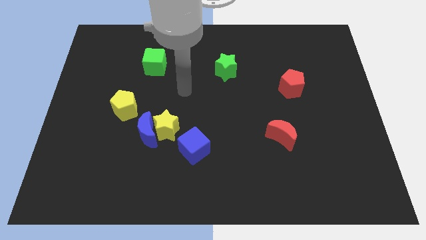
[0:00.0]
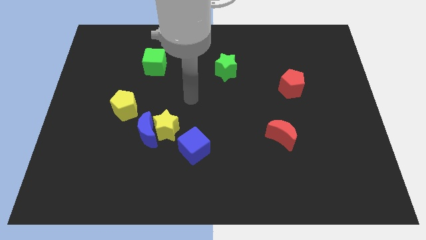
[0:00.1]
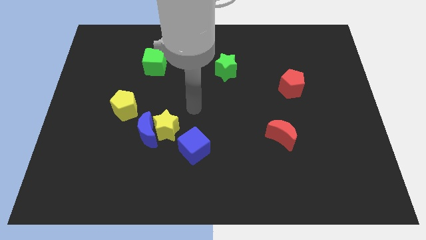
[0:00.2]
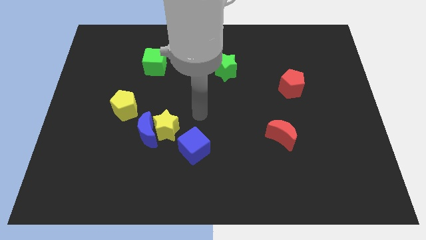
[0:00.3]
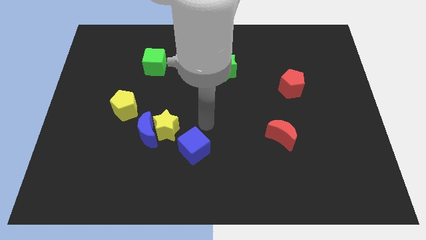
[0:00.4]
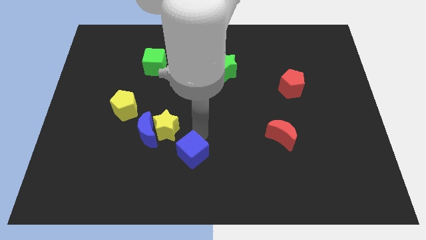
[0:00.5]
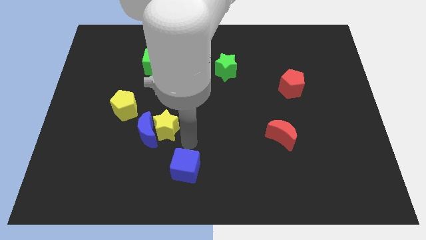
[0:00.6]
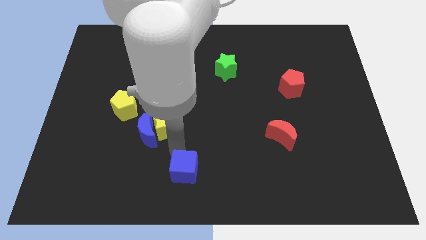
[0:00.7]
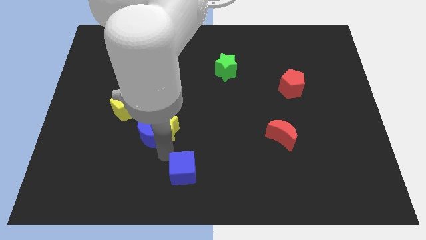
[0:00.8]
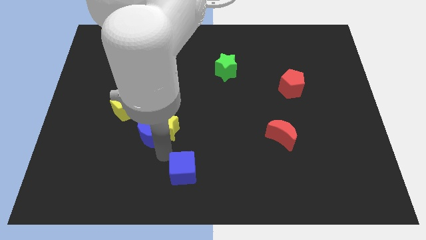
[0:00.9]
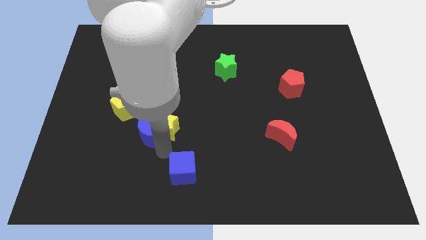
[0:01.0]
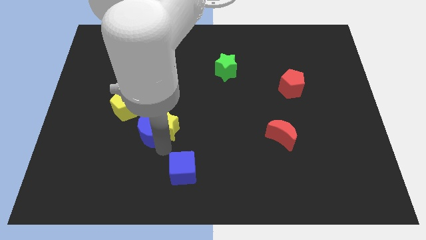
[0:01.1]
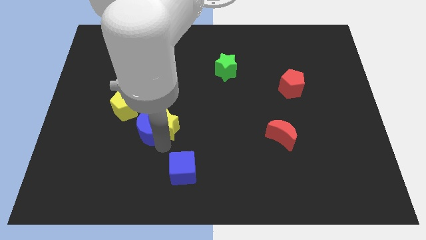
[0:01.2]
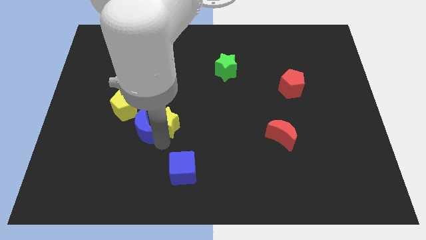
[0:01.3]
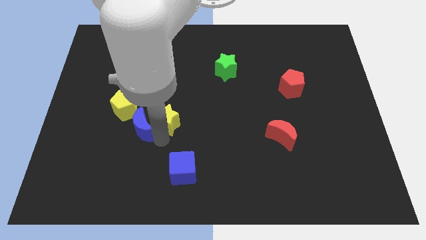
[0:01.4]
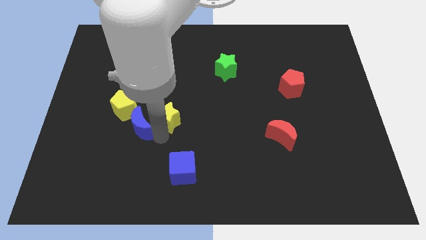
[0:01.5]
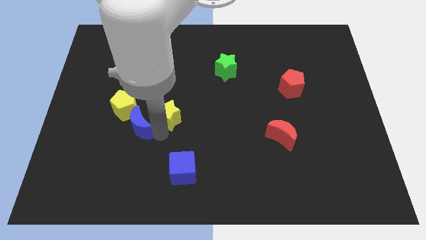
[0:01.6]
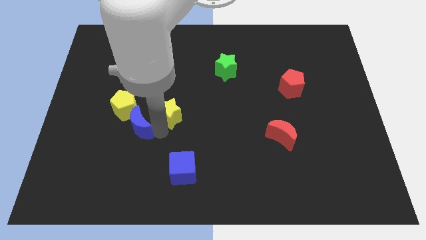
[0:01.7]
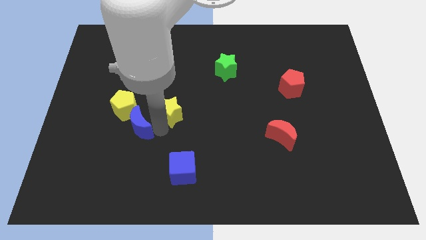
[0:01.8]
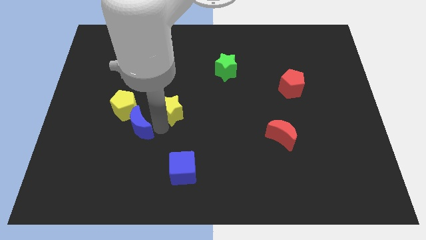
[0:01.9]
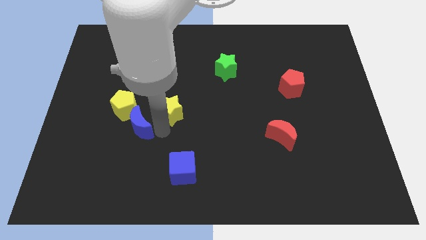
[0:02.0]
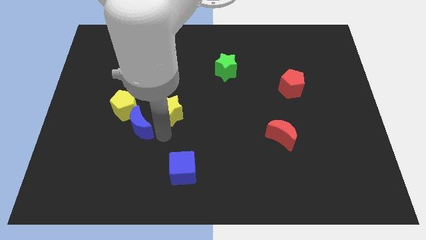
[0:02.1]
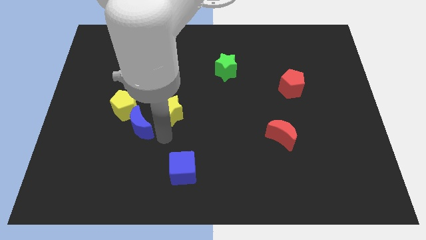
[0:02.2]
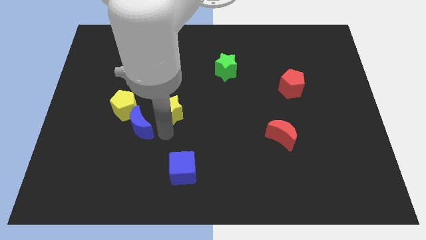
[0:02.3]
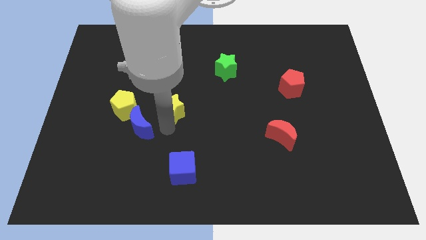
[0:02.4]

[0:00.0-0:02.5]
pull the yellow star apart from the blue moon and blue cube

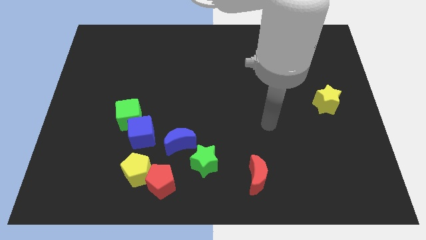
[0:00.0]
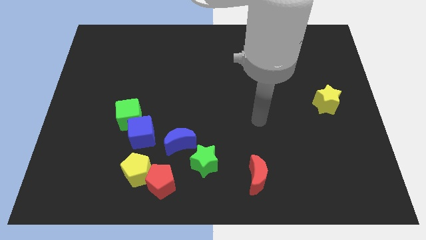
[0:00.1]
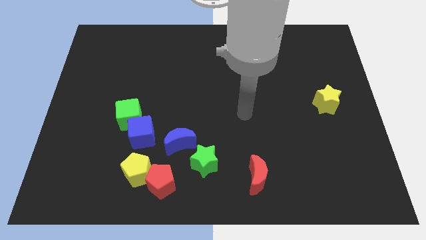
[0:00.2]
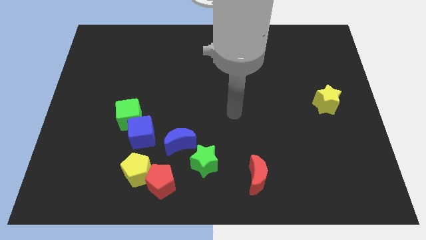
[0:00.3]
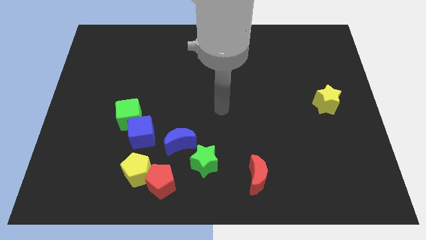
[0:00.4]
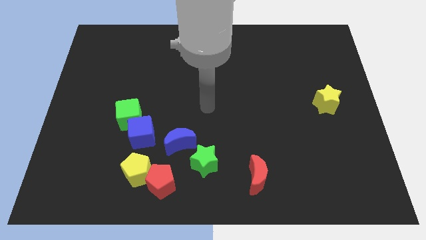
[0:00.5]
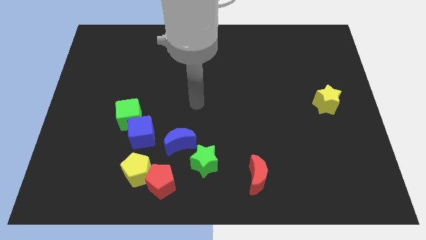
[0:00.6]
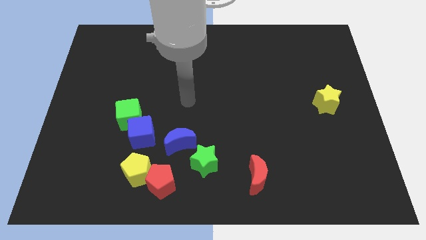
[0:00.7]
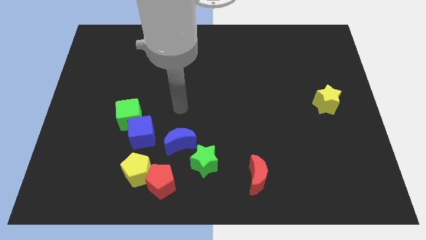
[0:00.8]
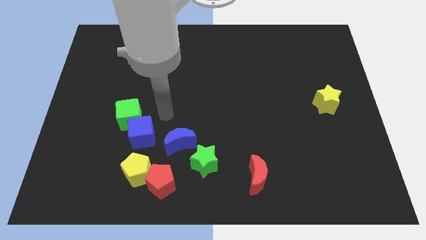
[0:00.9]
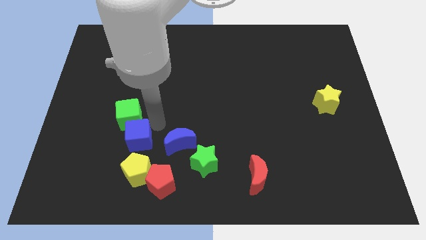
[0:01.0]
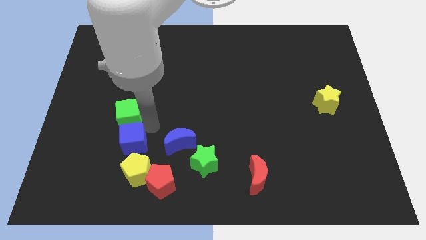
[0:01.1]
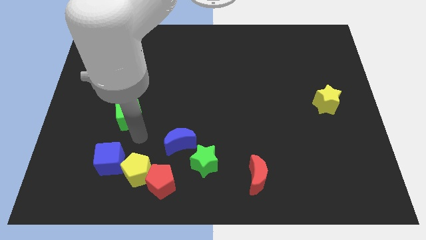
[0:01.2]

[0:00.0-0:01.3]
separate the green cube from the blue cube

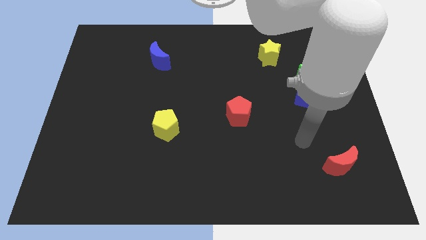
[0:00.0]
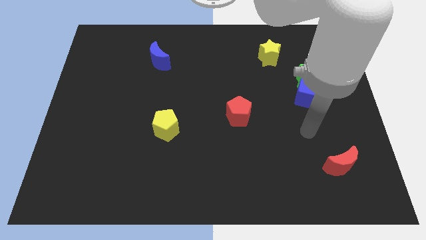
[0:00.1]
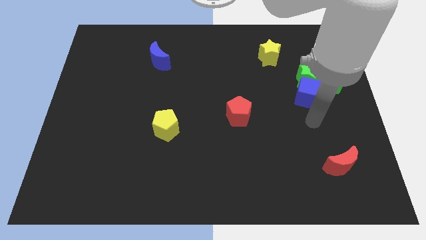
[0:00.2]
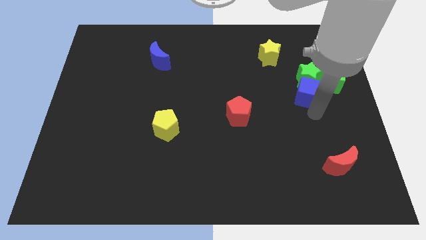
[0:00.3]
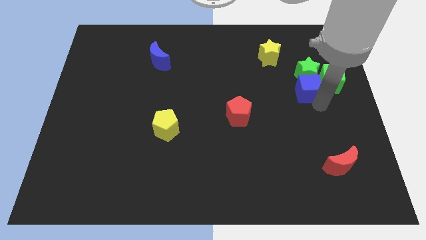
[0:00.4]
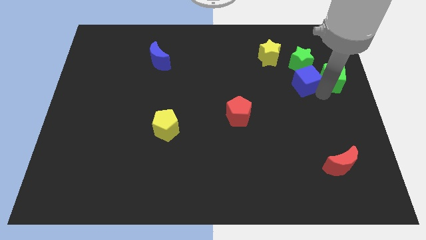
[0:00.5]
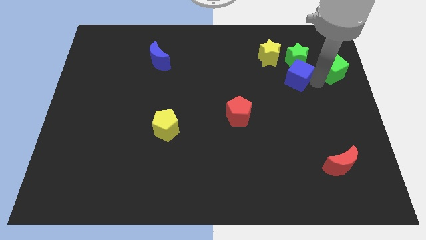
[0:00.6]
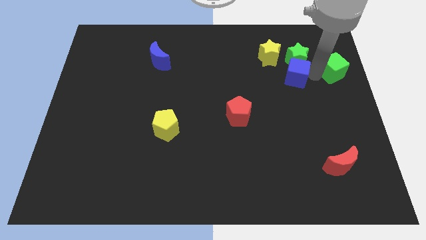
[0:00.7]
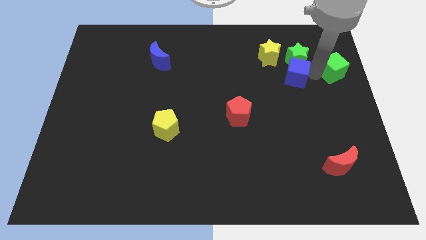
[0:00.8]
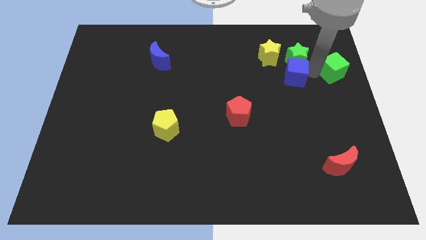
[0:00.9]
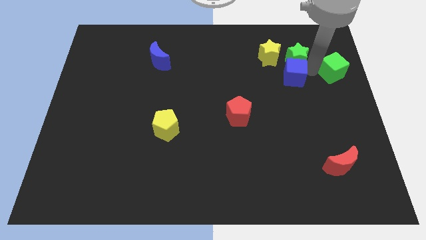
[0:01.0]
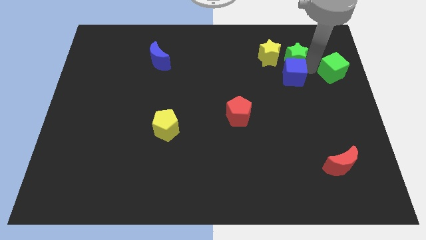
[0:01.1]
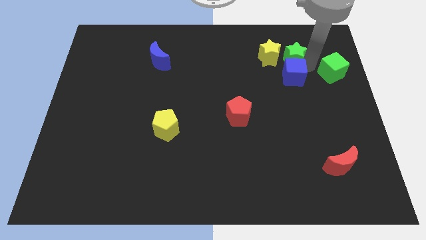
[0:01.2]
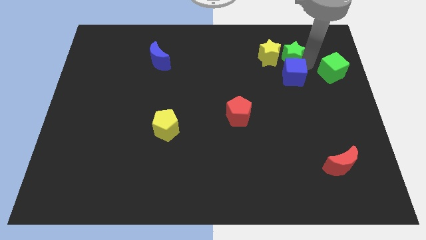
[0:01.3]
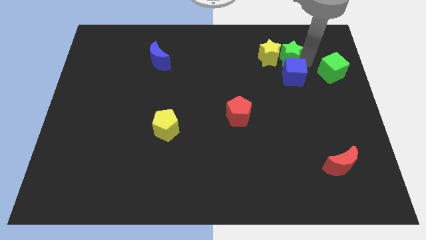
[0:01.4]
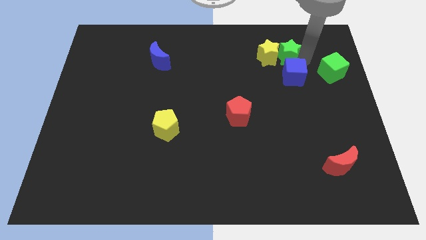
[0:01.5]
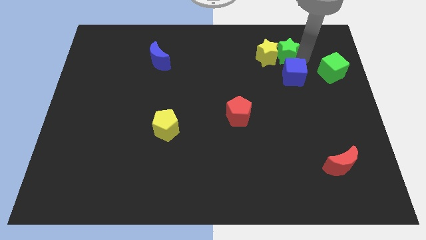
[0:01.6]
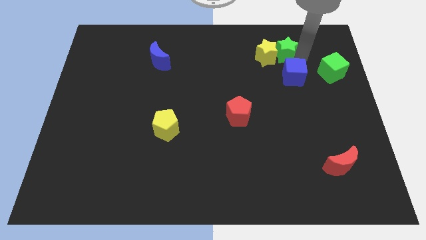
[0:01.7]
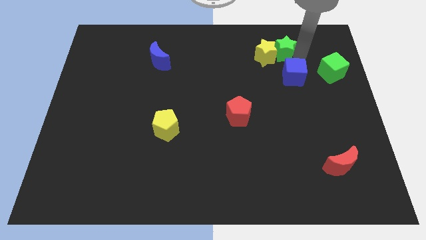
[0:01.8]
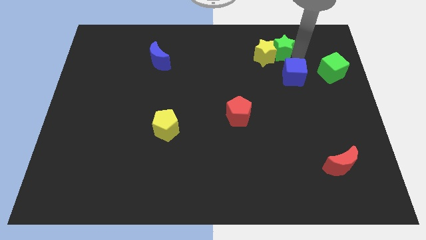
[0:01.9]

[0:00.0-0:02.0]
separate the green star from the green cube and blue cube

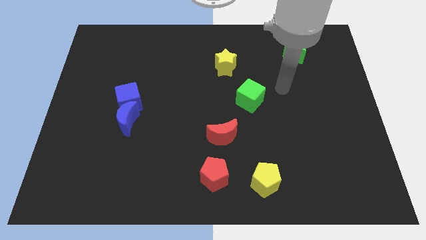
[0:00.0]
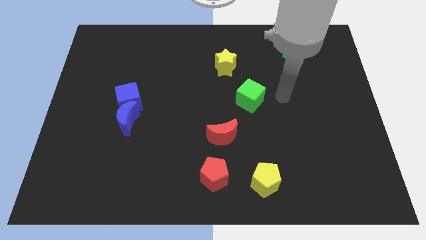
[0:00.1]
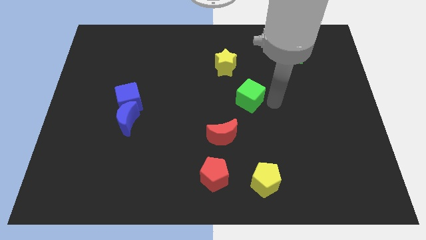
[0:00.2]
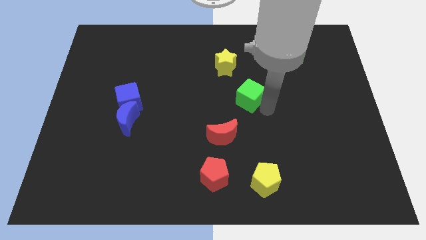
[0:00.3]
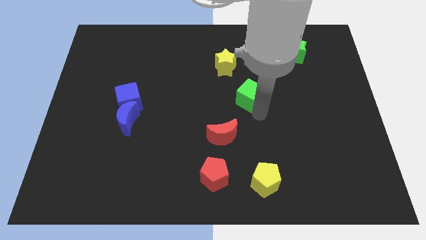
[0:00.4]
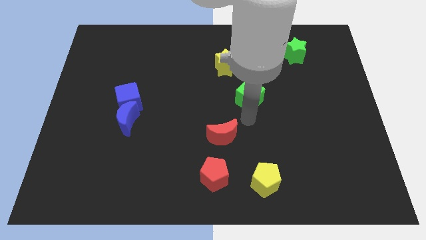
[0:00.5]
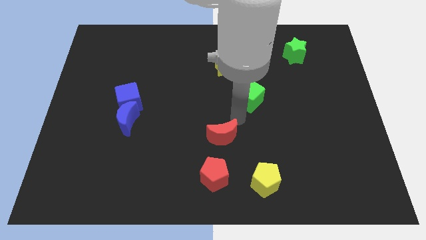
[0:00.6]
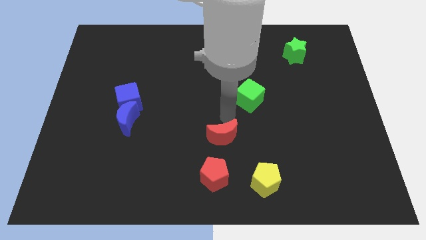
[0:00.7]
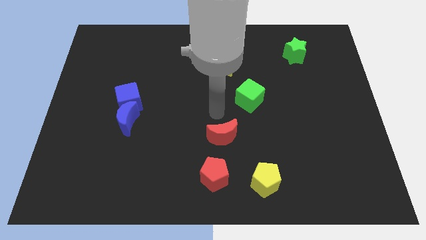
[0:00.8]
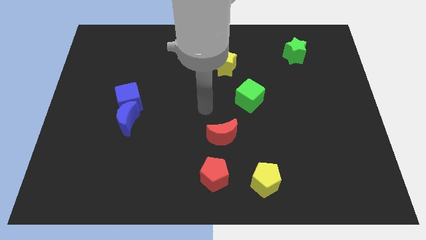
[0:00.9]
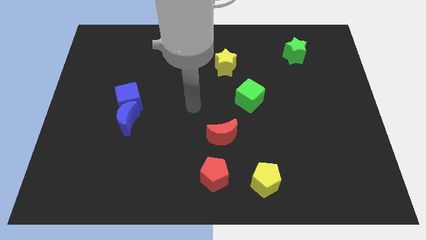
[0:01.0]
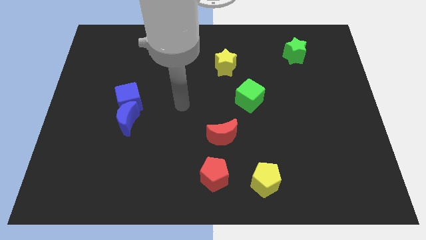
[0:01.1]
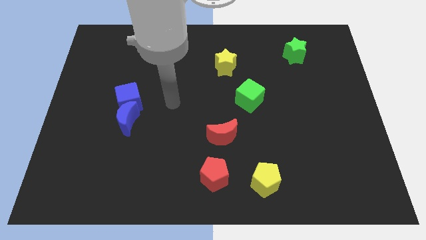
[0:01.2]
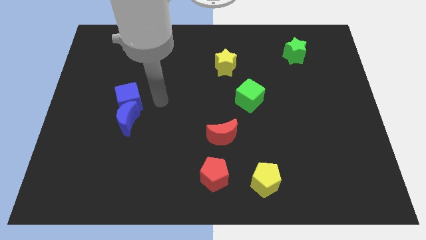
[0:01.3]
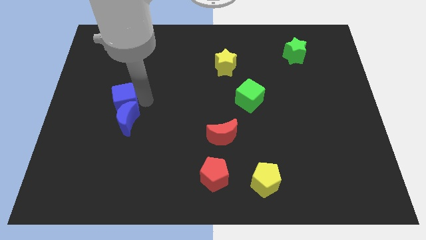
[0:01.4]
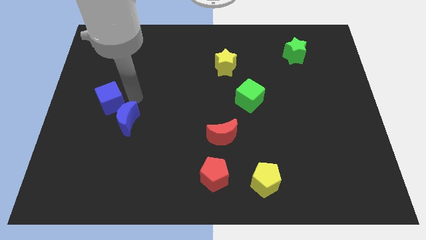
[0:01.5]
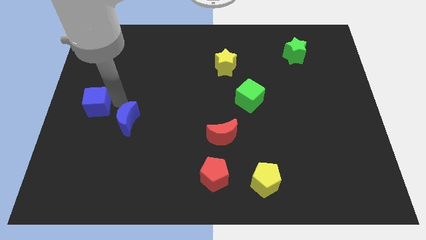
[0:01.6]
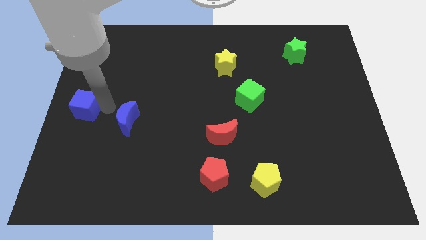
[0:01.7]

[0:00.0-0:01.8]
move the blue moon away from the blue cube

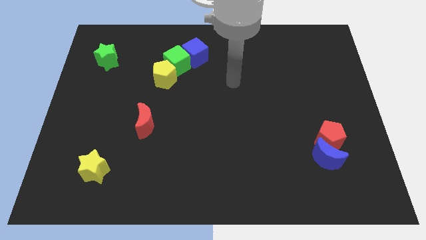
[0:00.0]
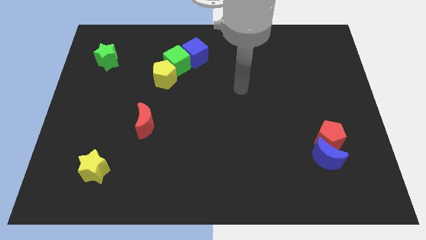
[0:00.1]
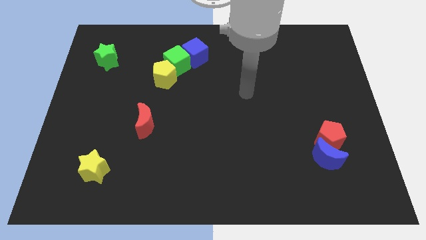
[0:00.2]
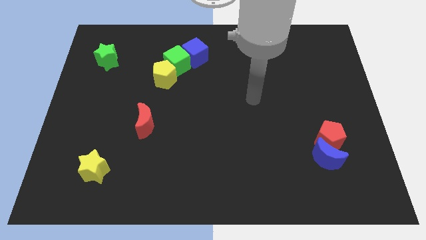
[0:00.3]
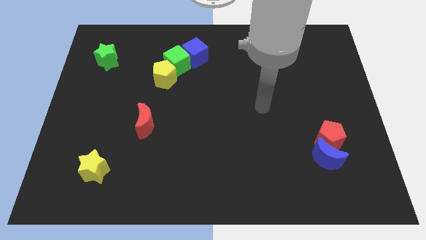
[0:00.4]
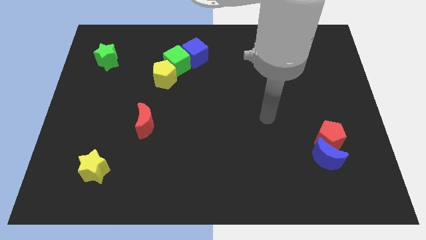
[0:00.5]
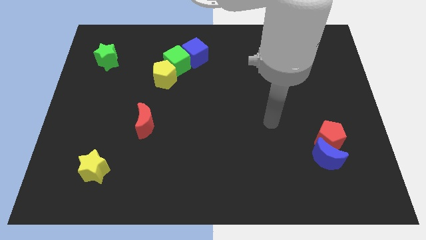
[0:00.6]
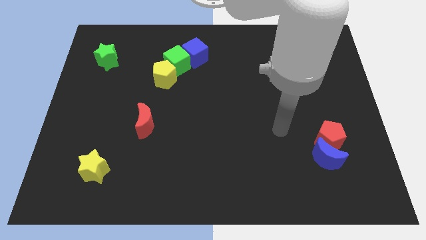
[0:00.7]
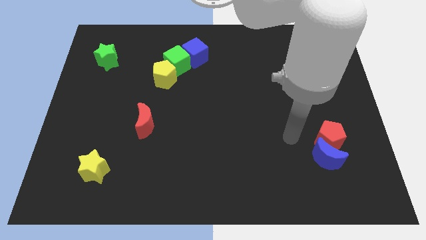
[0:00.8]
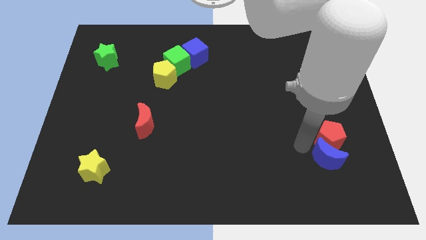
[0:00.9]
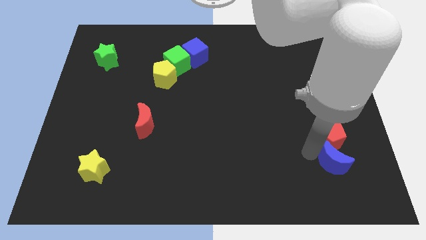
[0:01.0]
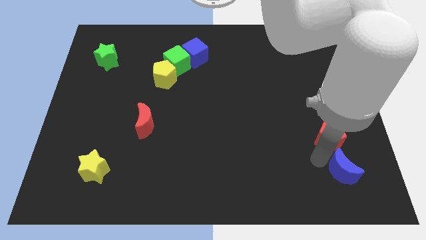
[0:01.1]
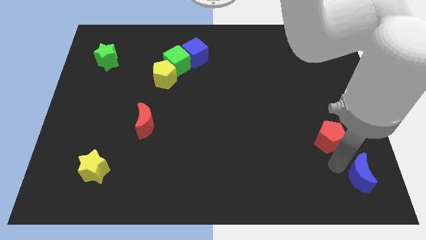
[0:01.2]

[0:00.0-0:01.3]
pull the red pentagon apart from the blue moon

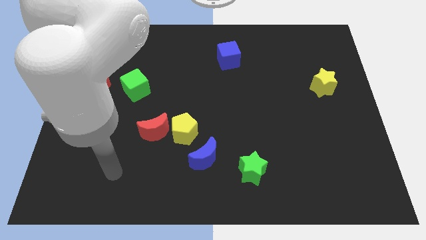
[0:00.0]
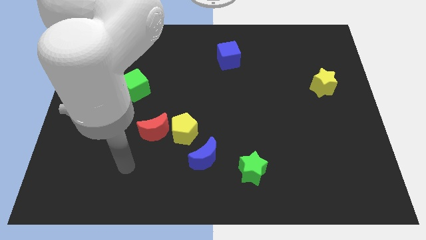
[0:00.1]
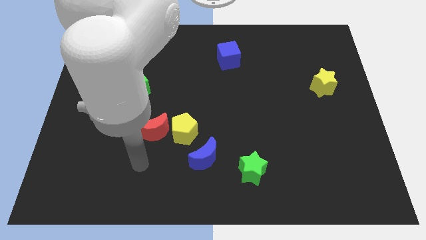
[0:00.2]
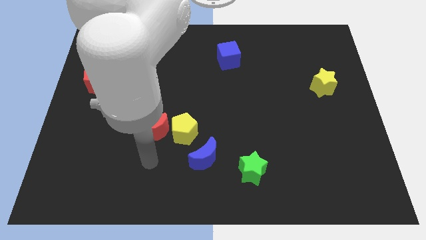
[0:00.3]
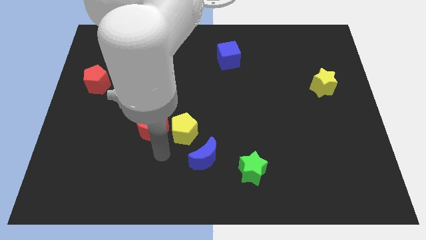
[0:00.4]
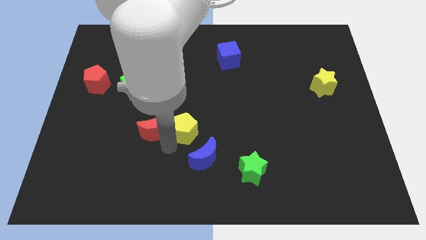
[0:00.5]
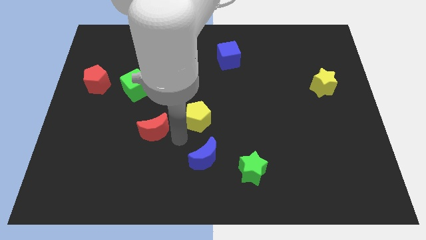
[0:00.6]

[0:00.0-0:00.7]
move the red moon away from the yellow pentagon
